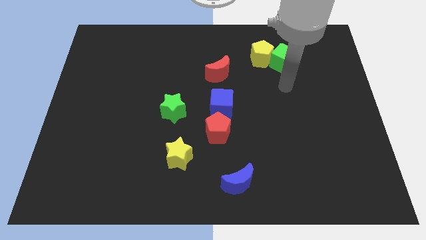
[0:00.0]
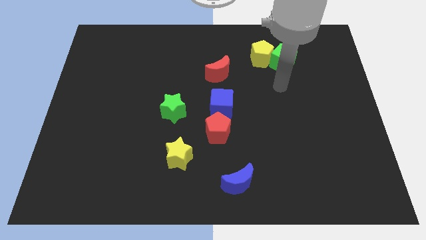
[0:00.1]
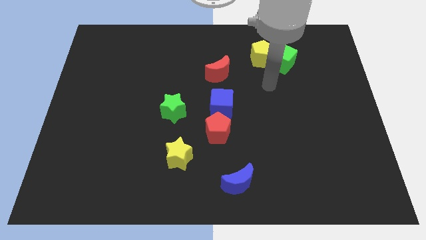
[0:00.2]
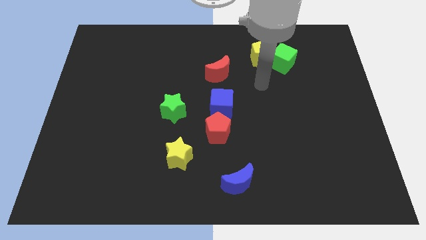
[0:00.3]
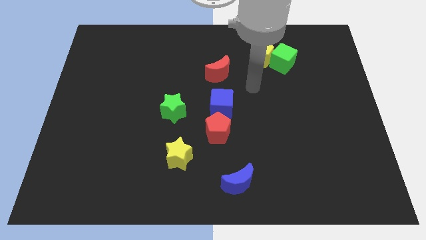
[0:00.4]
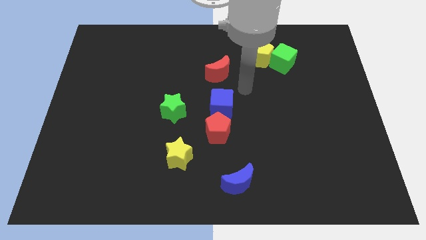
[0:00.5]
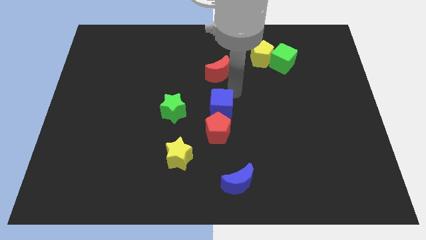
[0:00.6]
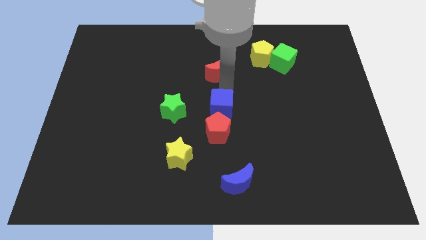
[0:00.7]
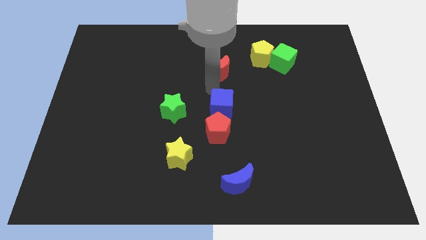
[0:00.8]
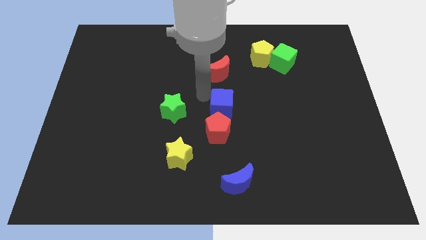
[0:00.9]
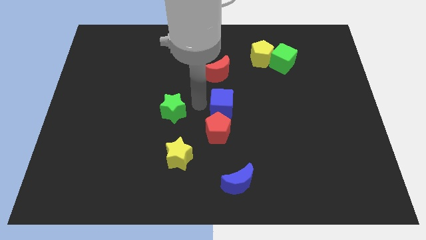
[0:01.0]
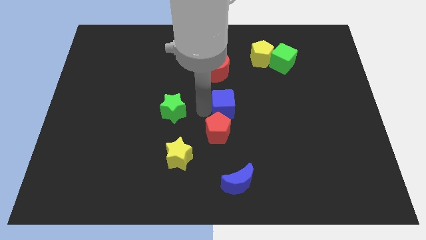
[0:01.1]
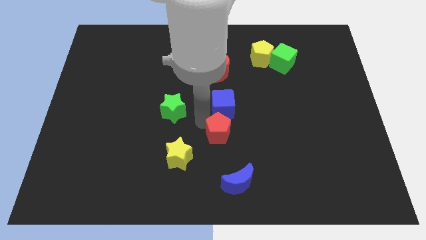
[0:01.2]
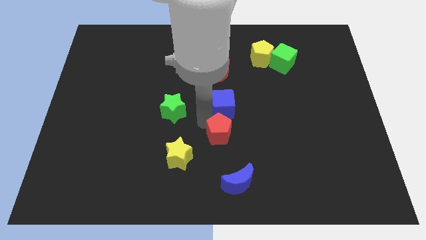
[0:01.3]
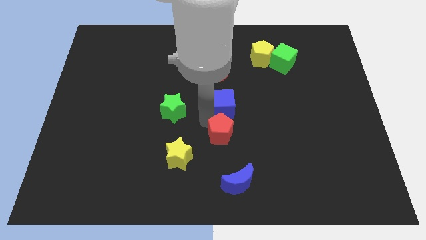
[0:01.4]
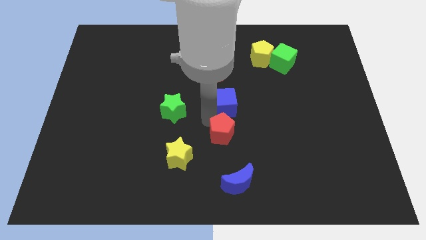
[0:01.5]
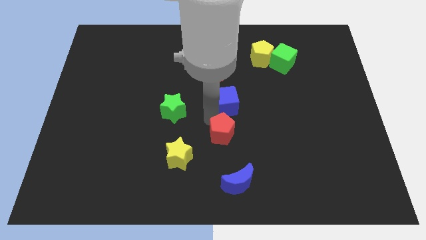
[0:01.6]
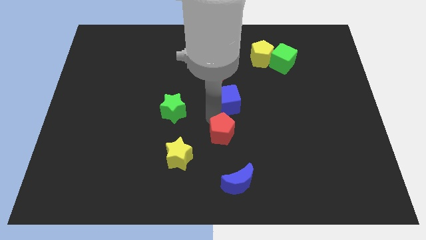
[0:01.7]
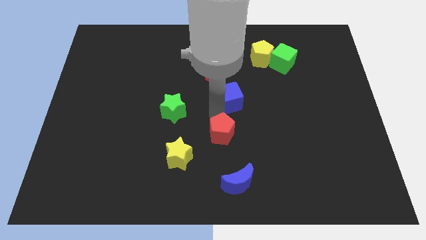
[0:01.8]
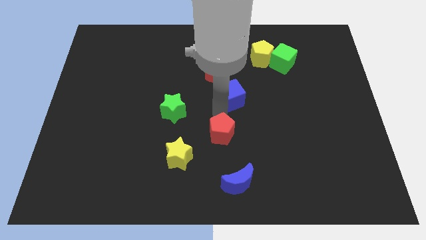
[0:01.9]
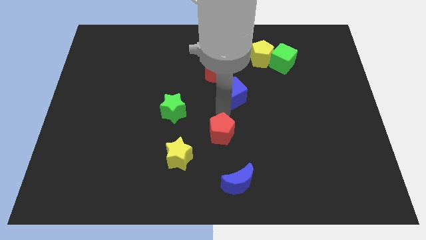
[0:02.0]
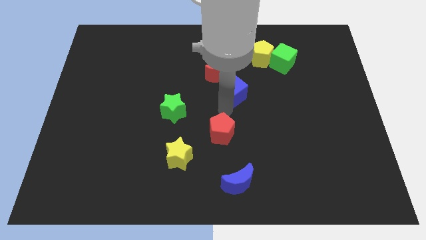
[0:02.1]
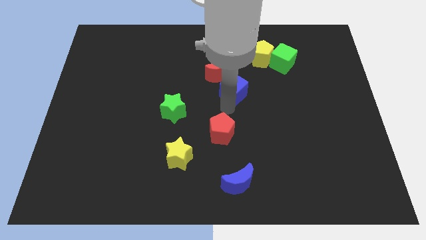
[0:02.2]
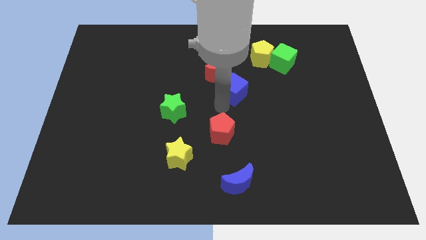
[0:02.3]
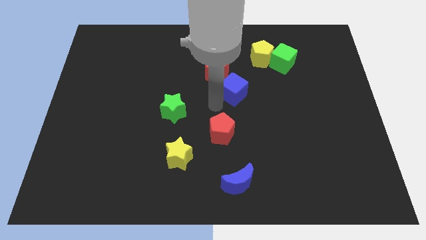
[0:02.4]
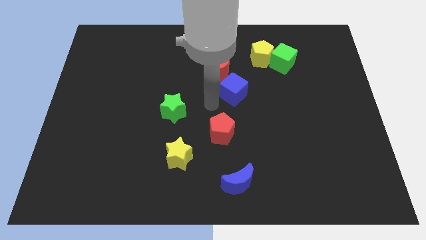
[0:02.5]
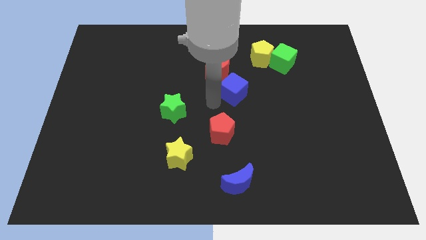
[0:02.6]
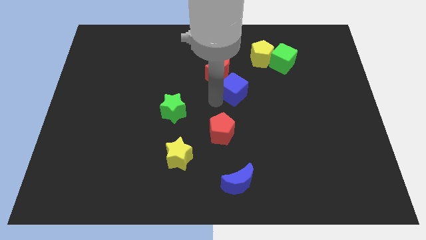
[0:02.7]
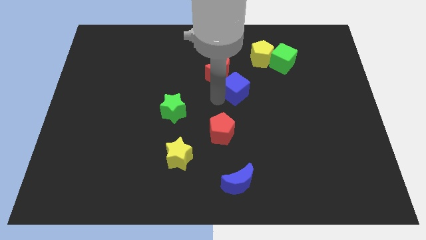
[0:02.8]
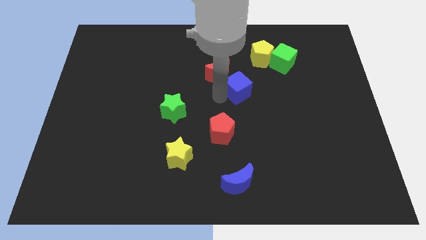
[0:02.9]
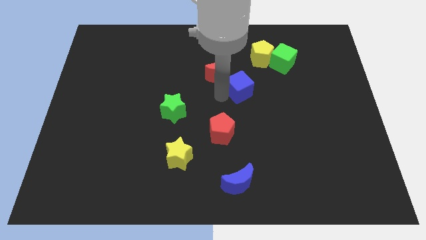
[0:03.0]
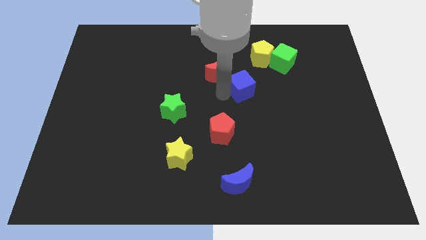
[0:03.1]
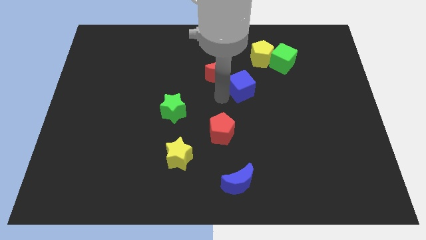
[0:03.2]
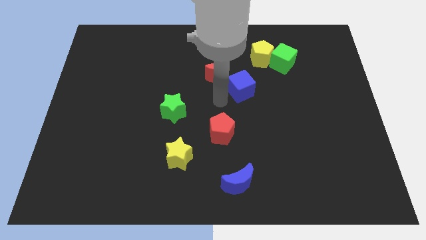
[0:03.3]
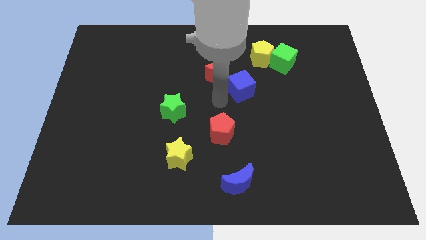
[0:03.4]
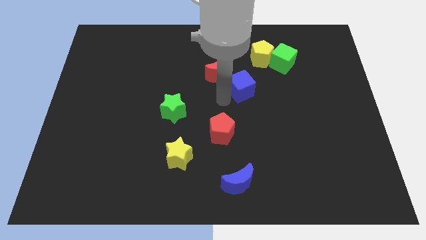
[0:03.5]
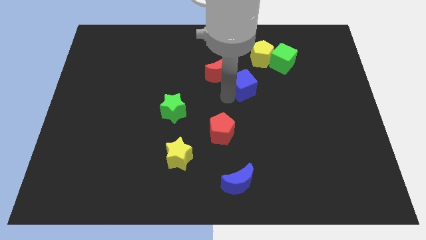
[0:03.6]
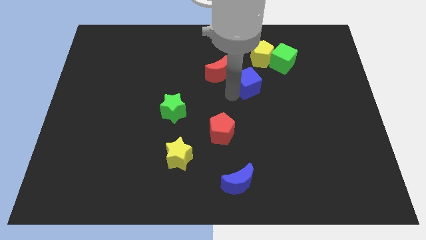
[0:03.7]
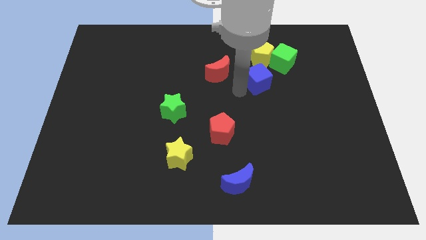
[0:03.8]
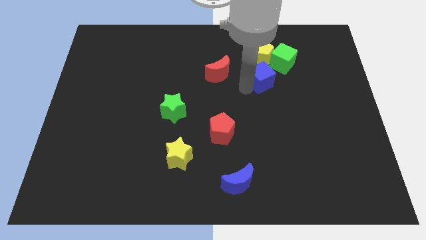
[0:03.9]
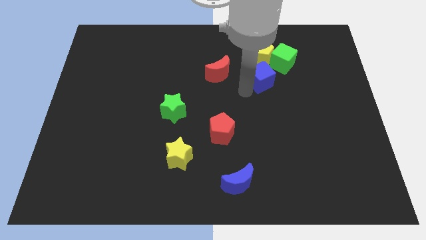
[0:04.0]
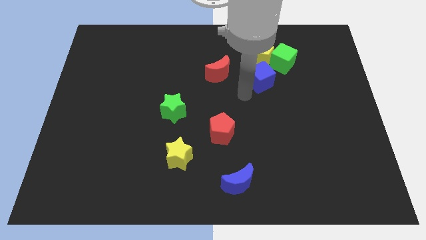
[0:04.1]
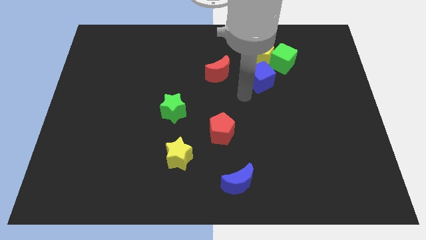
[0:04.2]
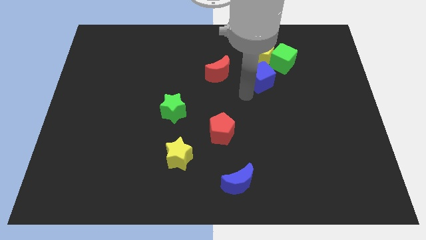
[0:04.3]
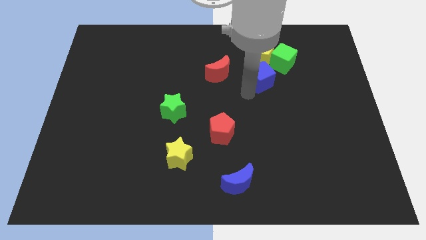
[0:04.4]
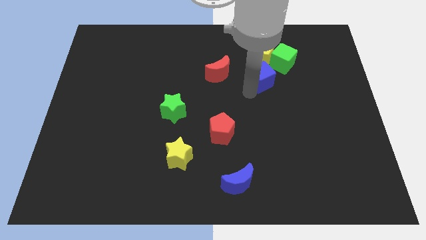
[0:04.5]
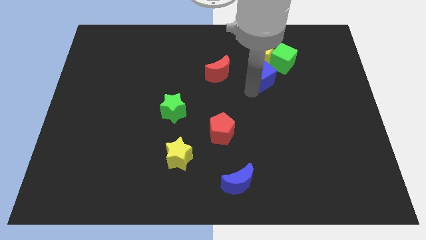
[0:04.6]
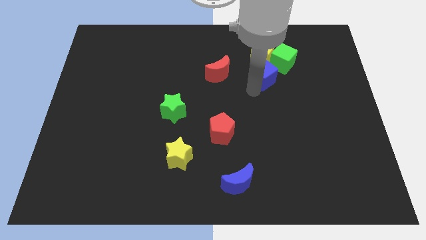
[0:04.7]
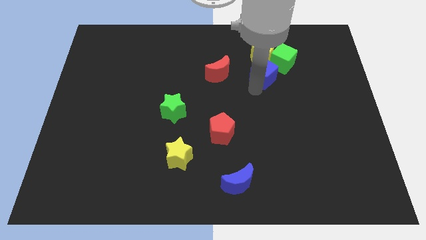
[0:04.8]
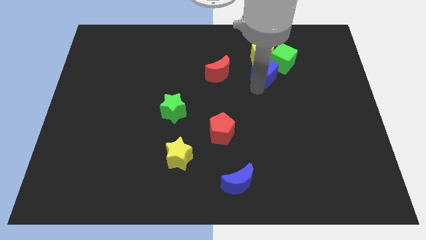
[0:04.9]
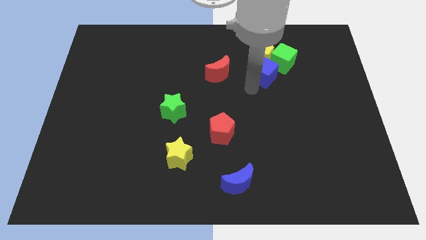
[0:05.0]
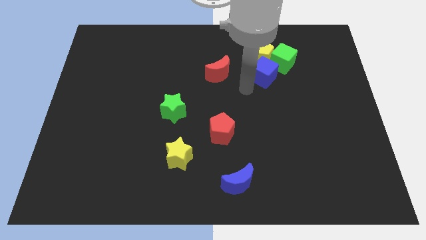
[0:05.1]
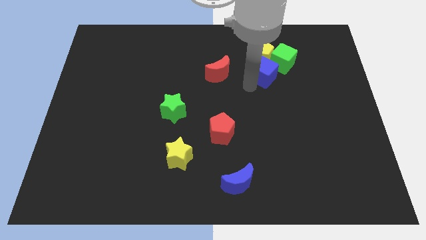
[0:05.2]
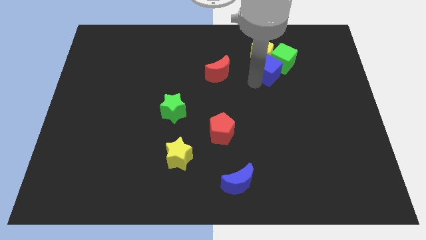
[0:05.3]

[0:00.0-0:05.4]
put the blue cube next to the green cube

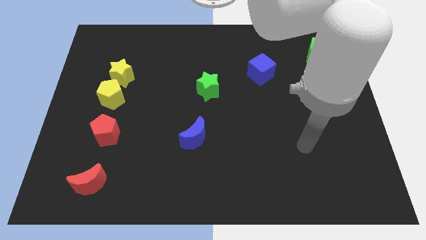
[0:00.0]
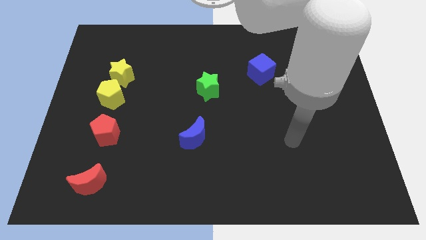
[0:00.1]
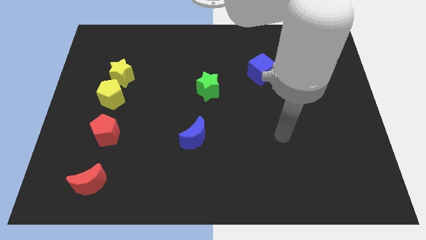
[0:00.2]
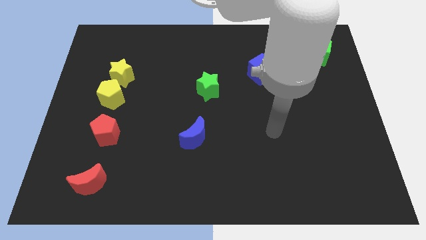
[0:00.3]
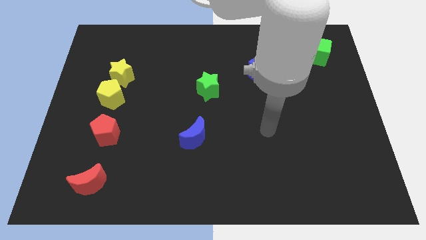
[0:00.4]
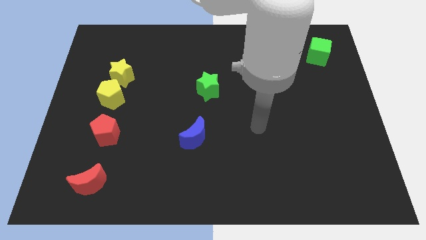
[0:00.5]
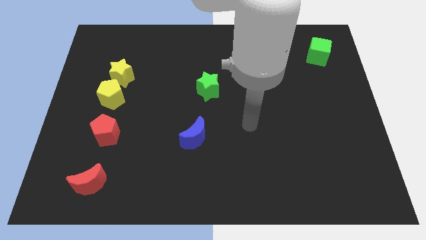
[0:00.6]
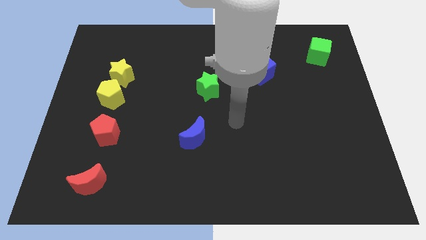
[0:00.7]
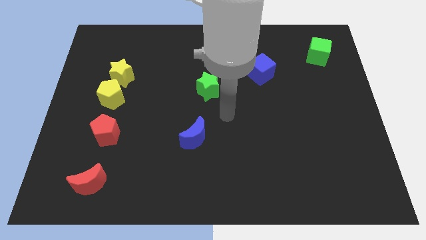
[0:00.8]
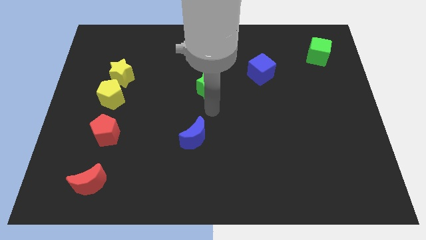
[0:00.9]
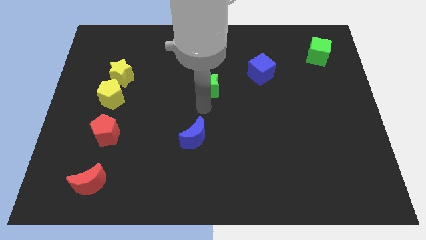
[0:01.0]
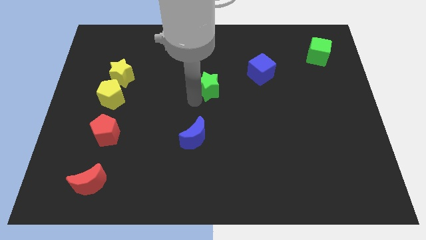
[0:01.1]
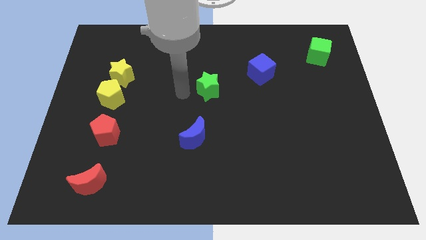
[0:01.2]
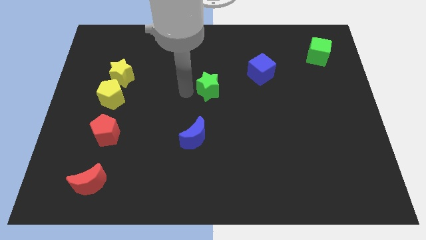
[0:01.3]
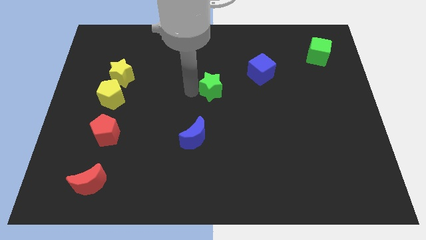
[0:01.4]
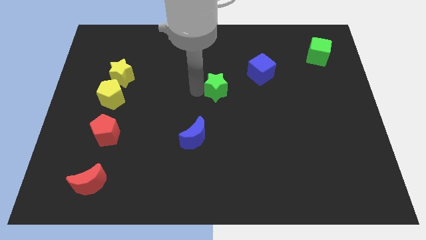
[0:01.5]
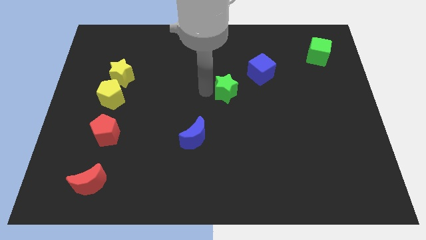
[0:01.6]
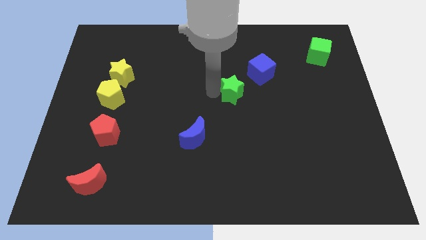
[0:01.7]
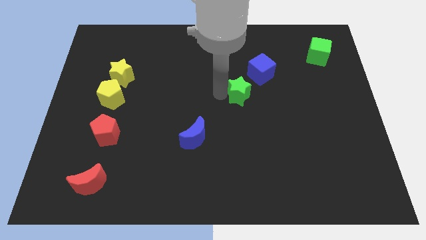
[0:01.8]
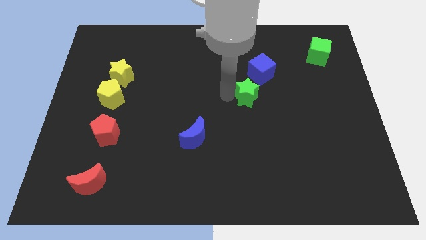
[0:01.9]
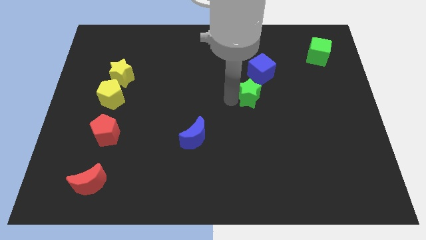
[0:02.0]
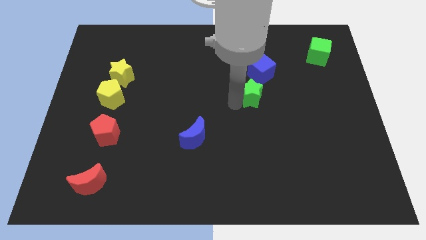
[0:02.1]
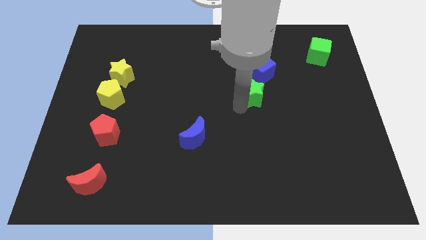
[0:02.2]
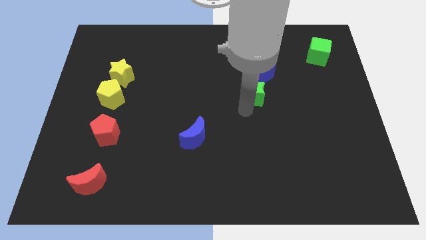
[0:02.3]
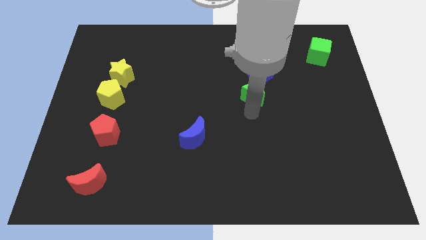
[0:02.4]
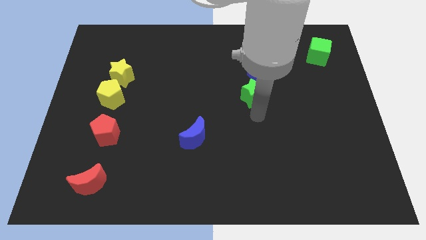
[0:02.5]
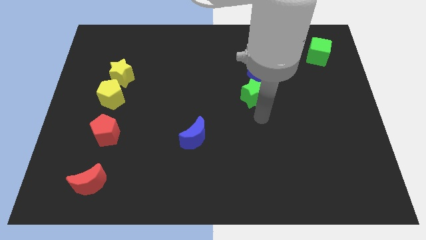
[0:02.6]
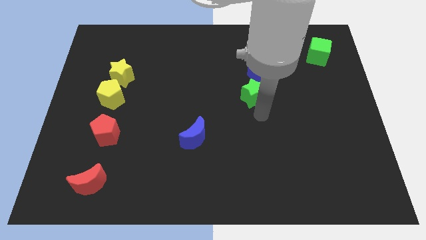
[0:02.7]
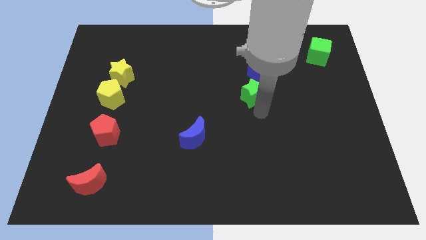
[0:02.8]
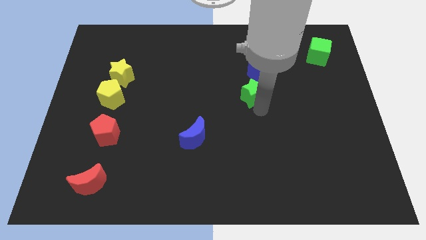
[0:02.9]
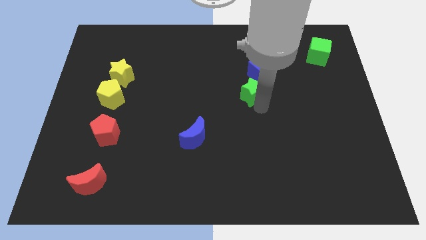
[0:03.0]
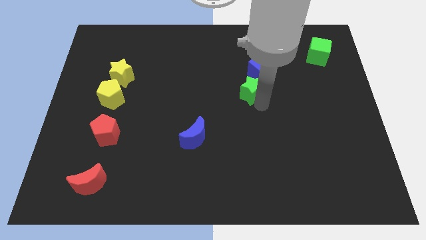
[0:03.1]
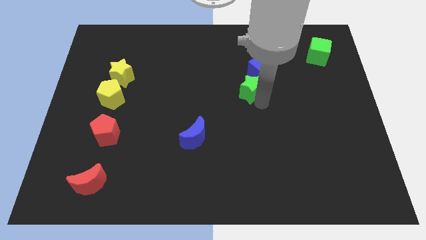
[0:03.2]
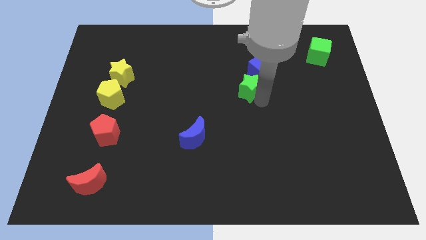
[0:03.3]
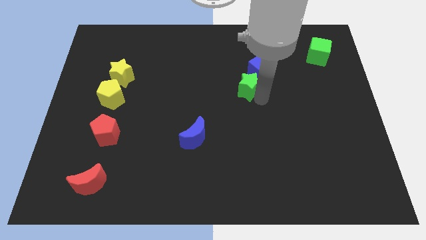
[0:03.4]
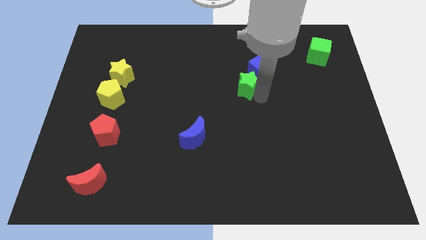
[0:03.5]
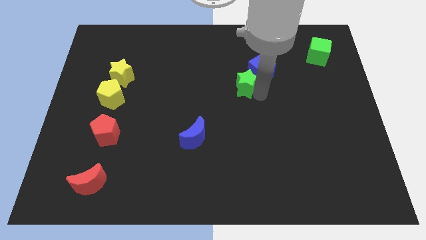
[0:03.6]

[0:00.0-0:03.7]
put the green star towards the blue cube
